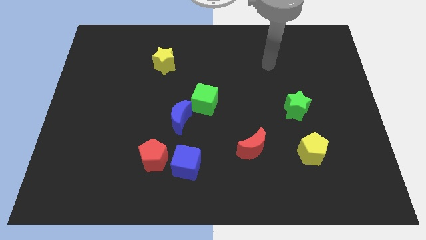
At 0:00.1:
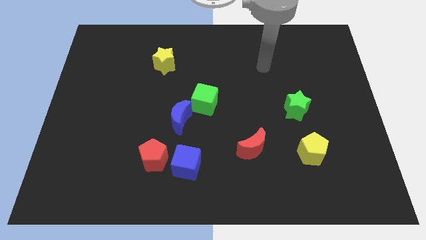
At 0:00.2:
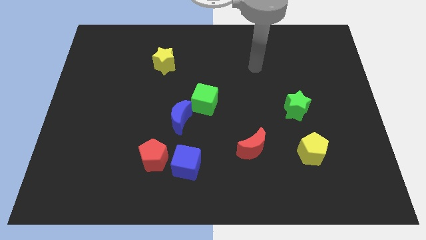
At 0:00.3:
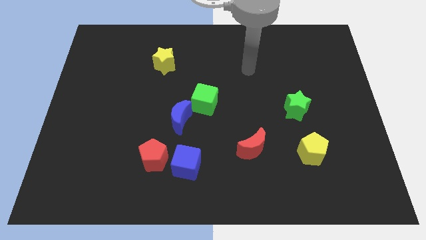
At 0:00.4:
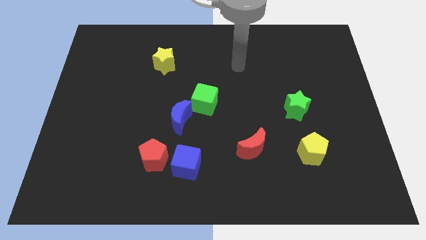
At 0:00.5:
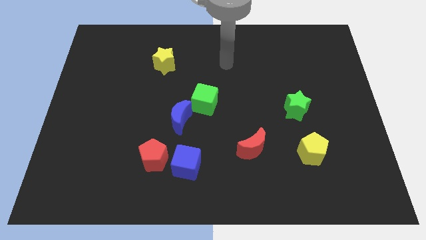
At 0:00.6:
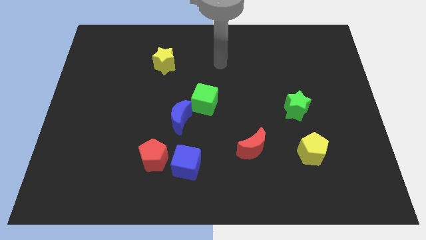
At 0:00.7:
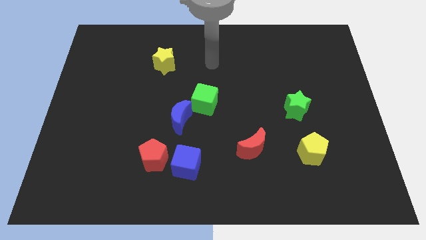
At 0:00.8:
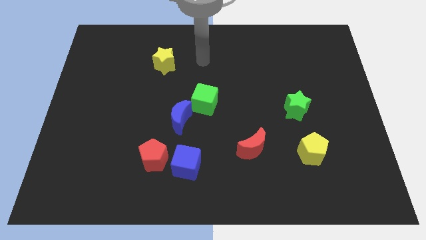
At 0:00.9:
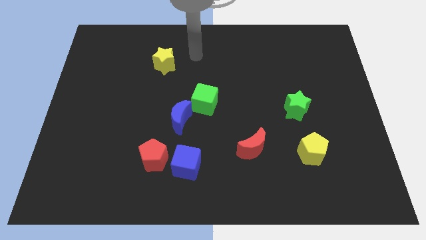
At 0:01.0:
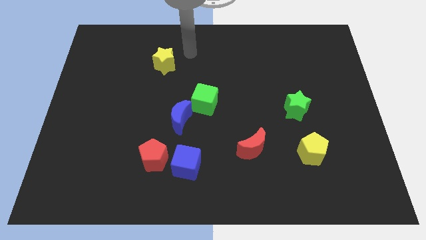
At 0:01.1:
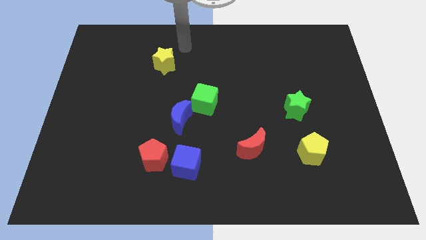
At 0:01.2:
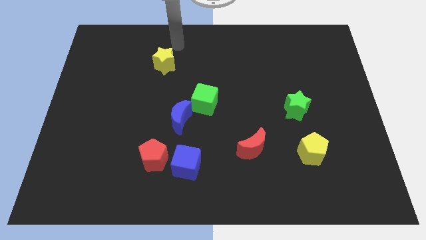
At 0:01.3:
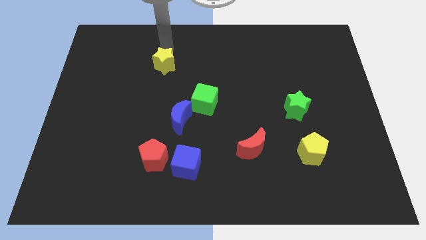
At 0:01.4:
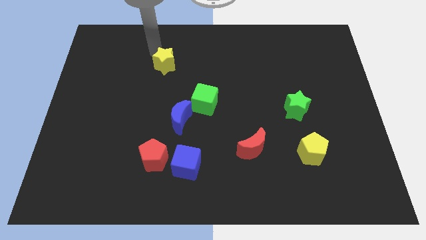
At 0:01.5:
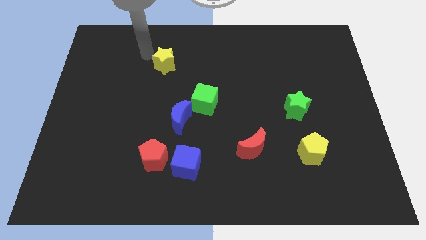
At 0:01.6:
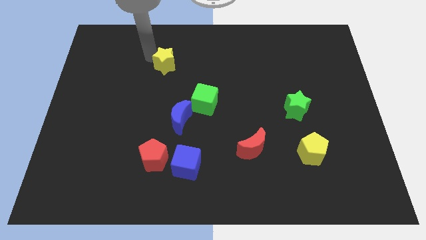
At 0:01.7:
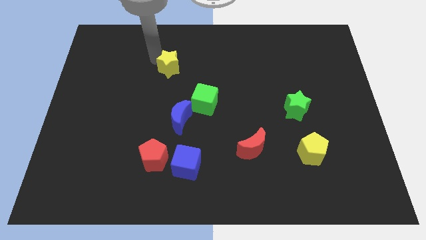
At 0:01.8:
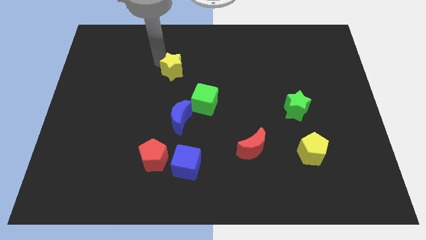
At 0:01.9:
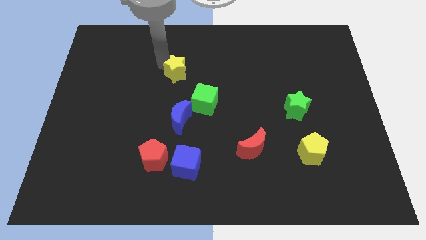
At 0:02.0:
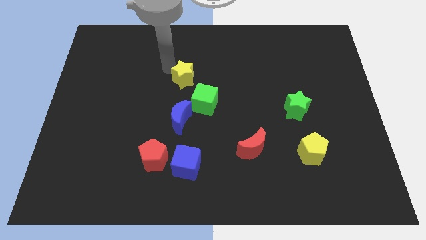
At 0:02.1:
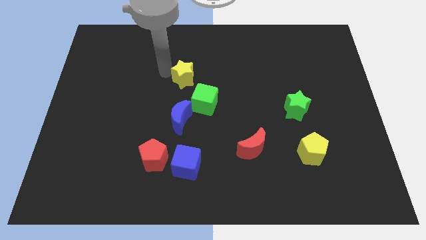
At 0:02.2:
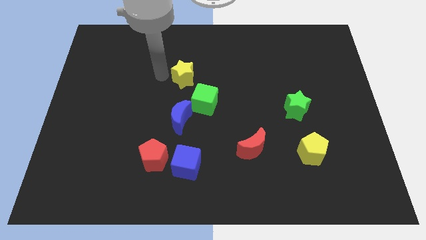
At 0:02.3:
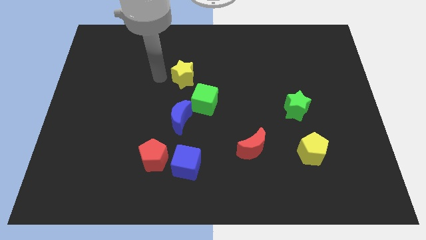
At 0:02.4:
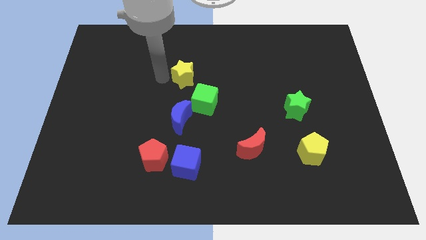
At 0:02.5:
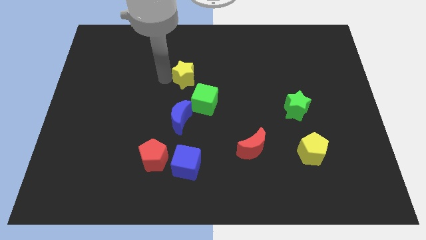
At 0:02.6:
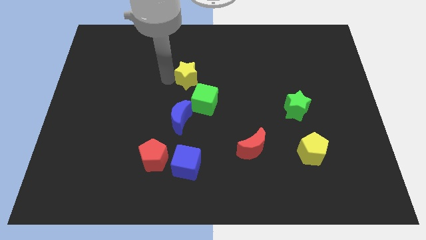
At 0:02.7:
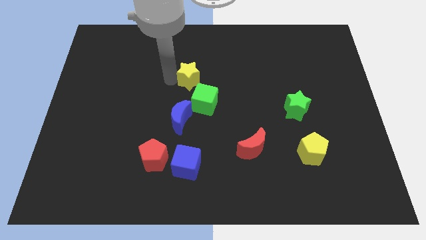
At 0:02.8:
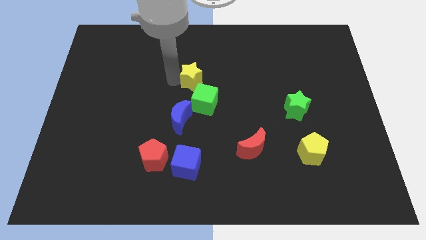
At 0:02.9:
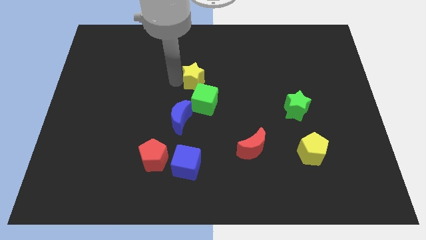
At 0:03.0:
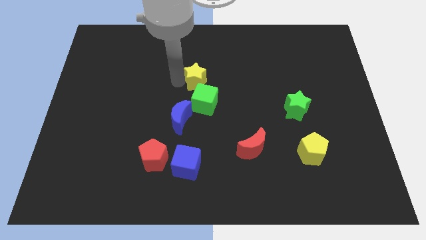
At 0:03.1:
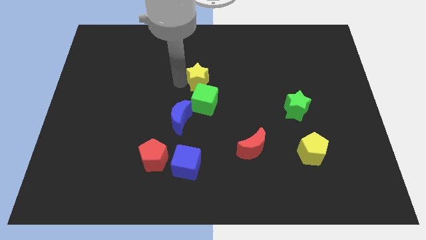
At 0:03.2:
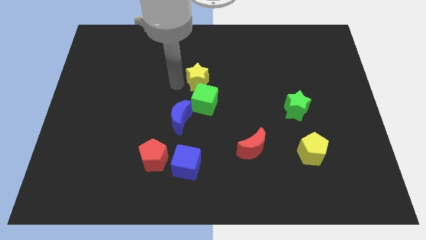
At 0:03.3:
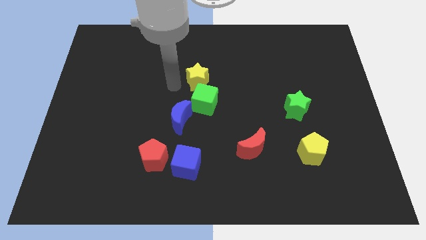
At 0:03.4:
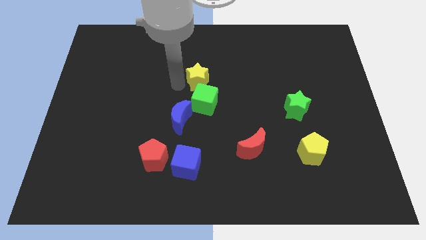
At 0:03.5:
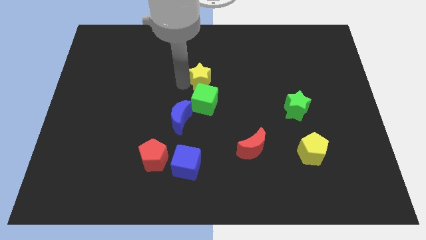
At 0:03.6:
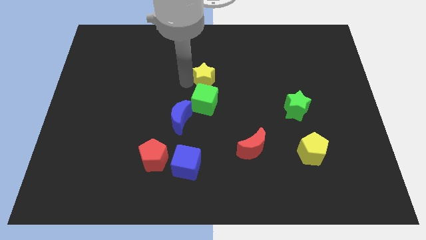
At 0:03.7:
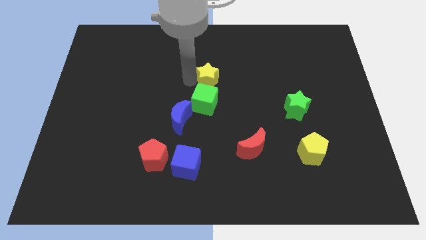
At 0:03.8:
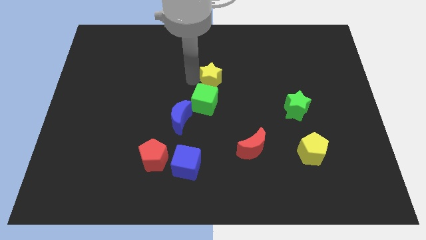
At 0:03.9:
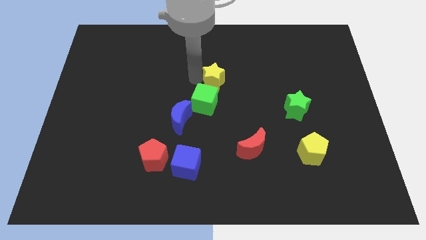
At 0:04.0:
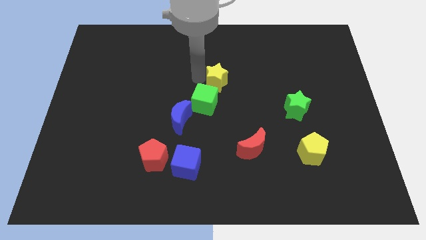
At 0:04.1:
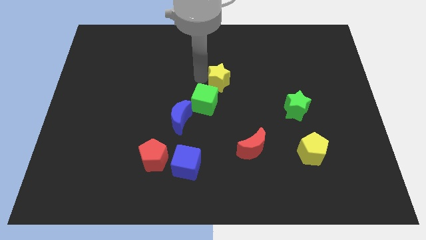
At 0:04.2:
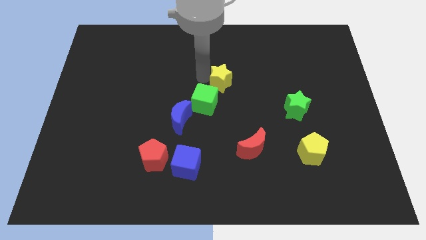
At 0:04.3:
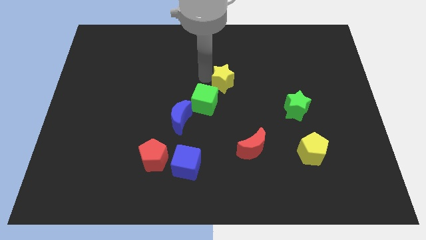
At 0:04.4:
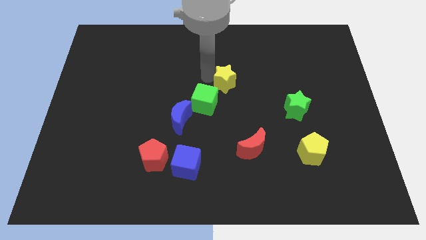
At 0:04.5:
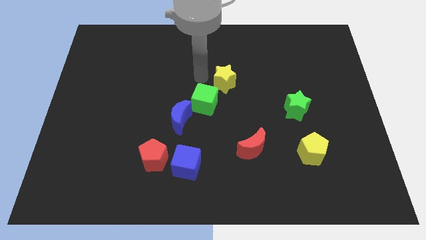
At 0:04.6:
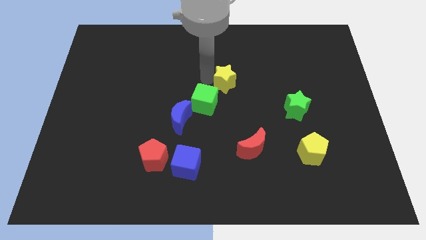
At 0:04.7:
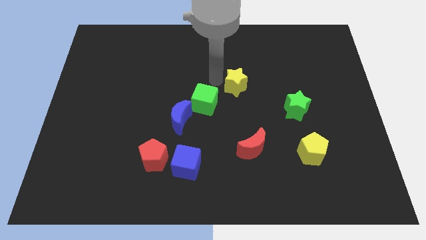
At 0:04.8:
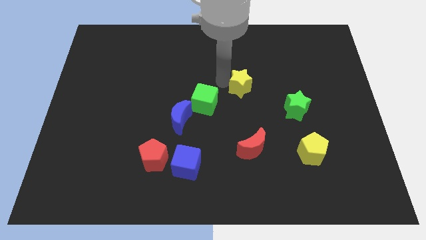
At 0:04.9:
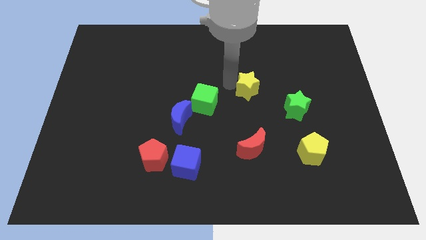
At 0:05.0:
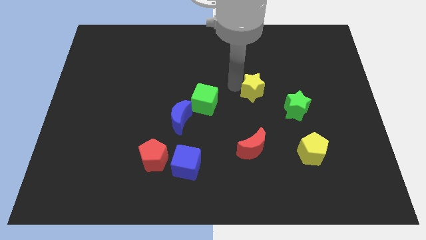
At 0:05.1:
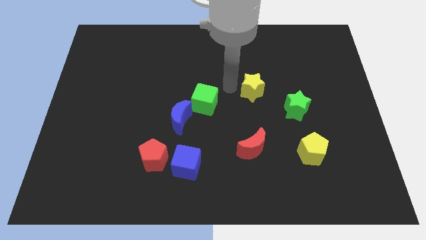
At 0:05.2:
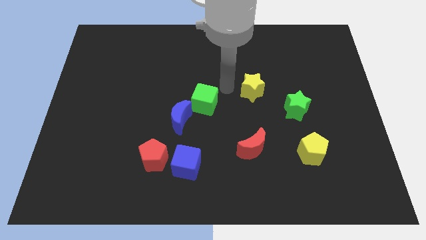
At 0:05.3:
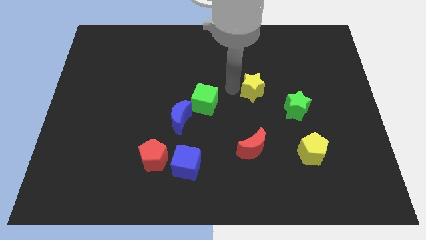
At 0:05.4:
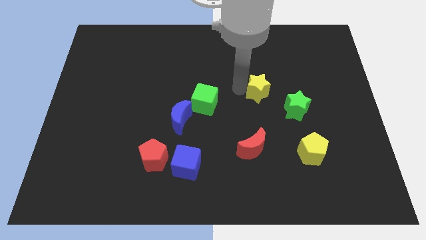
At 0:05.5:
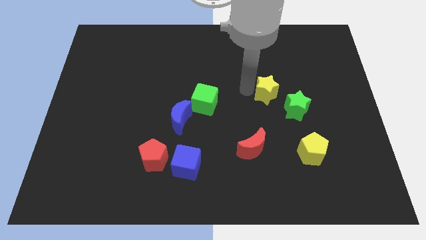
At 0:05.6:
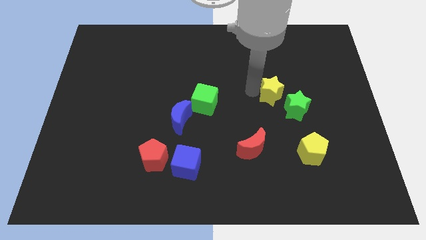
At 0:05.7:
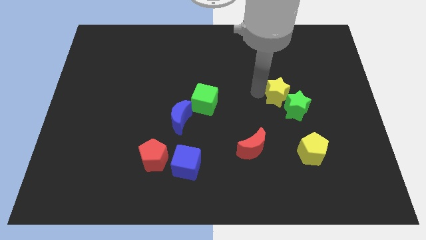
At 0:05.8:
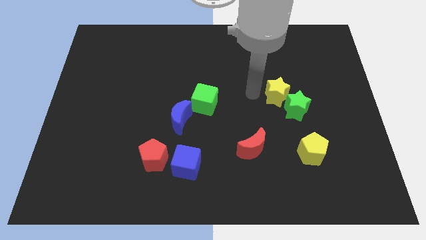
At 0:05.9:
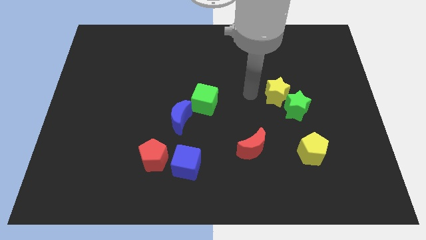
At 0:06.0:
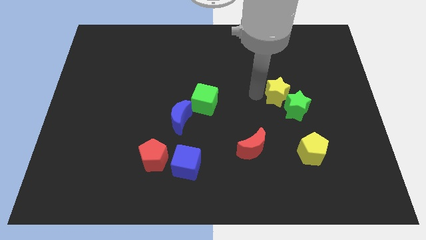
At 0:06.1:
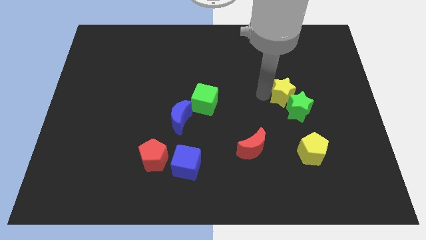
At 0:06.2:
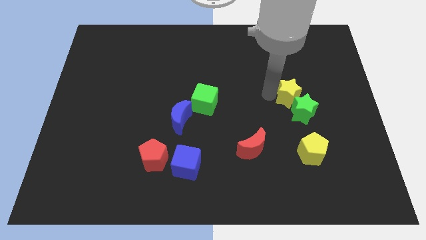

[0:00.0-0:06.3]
slide the yellow star to the top of the yellow pentagon
